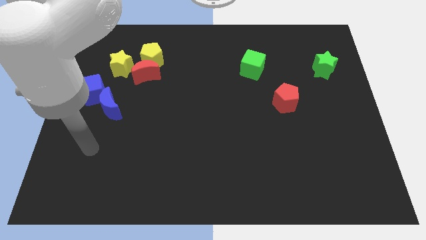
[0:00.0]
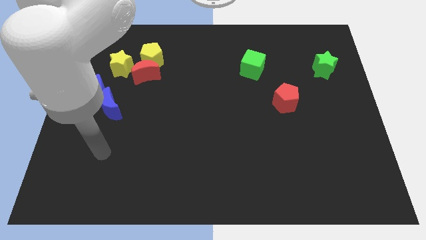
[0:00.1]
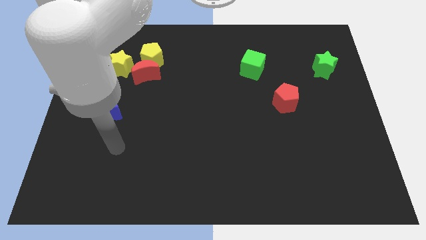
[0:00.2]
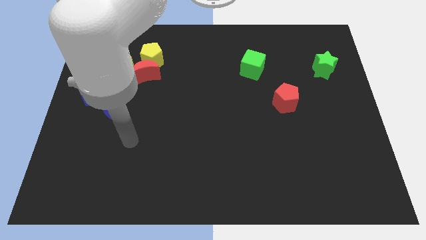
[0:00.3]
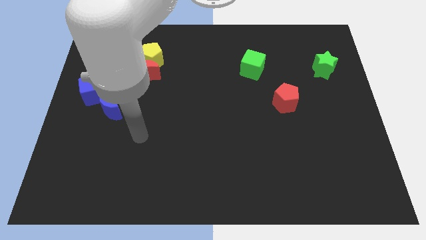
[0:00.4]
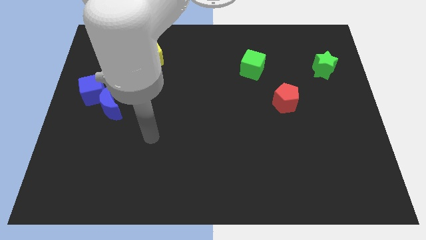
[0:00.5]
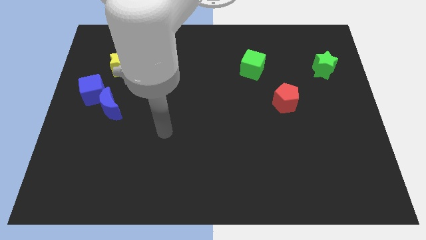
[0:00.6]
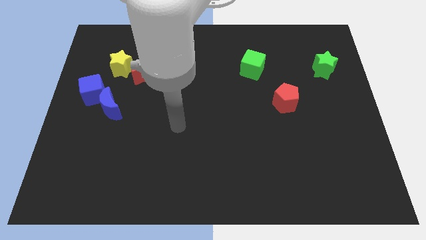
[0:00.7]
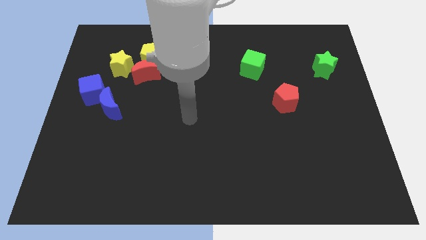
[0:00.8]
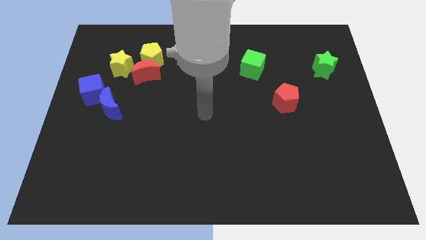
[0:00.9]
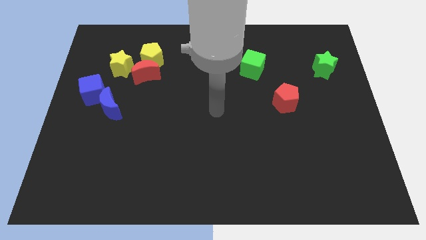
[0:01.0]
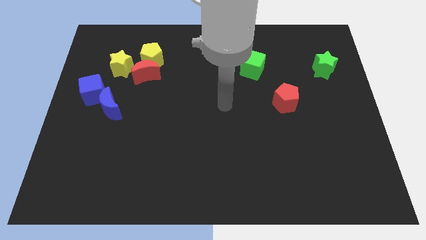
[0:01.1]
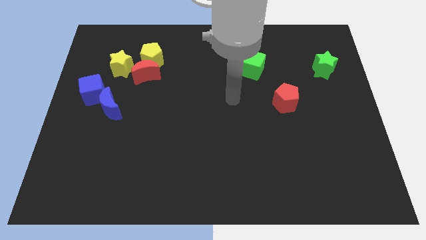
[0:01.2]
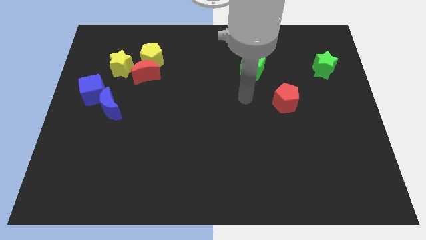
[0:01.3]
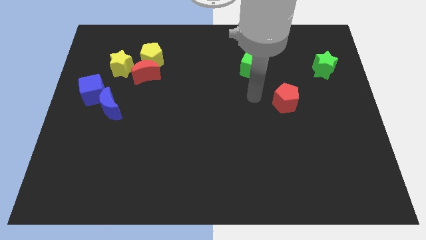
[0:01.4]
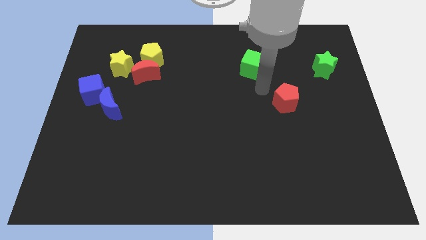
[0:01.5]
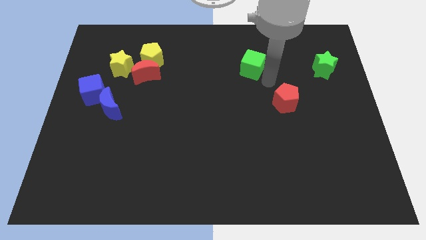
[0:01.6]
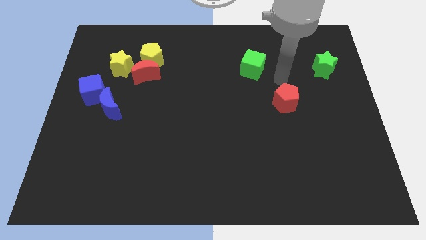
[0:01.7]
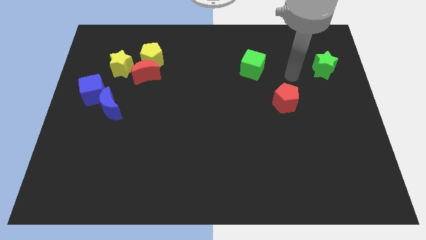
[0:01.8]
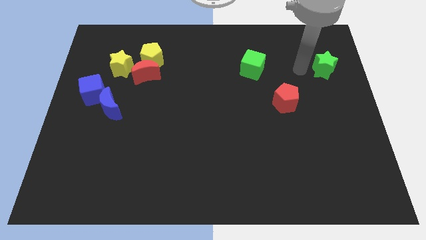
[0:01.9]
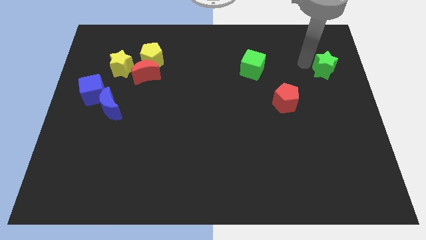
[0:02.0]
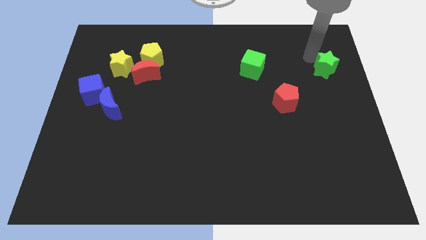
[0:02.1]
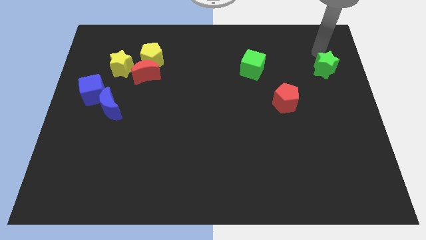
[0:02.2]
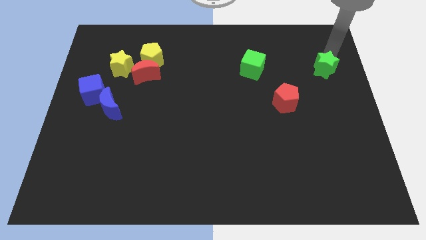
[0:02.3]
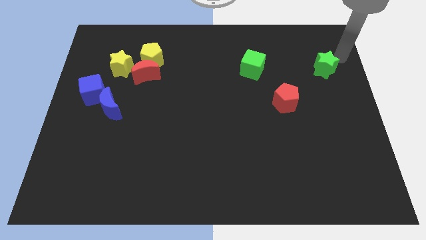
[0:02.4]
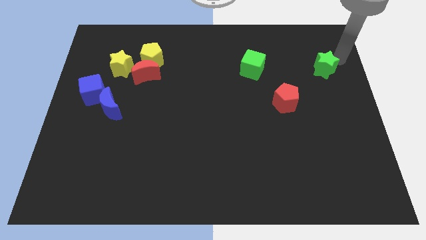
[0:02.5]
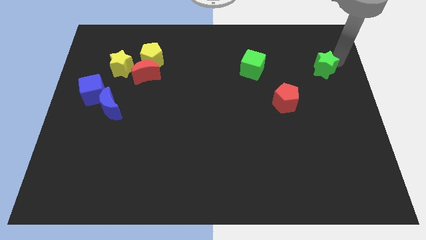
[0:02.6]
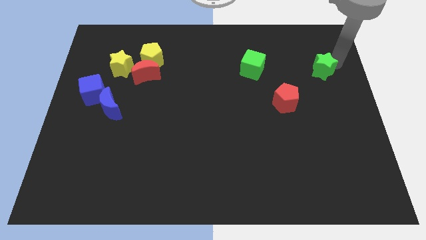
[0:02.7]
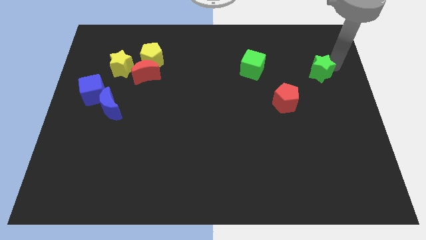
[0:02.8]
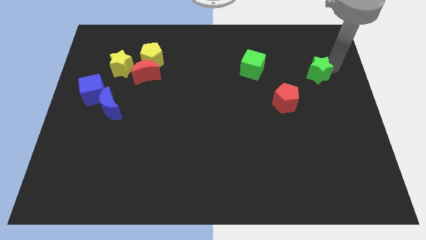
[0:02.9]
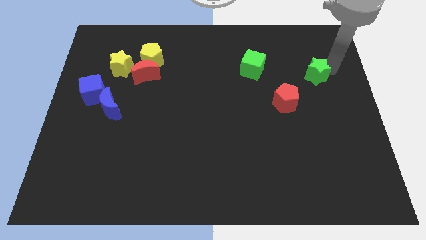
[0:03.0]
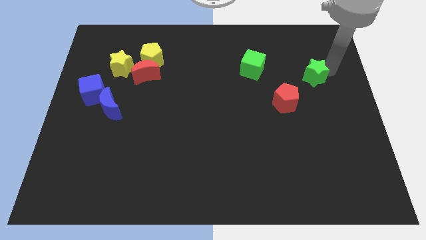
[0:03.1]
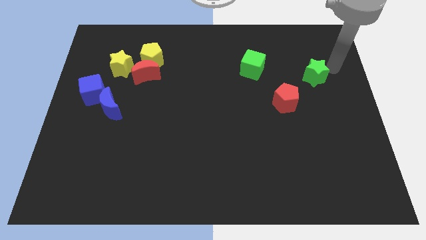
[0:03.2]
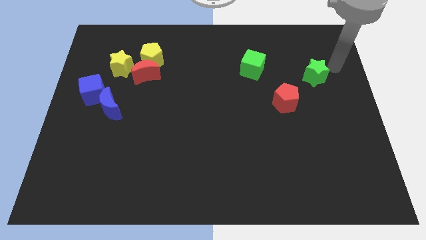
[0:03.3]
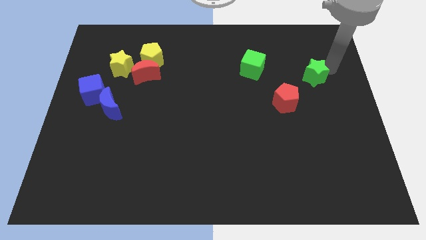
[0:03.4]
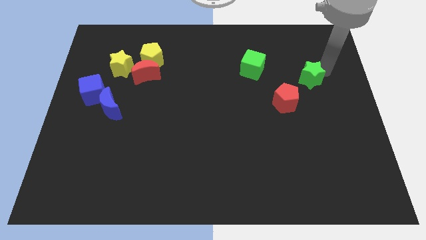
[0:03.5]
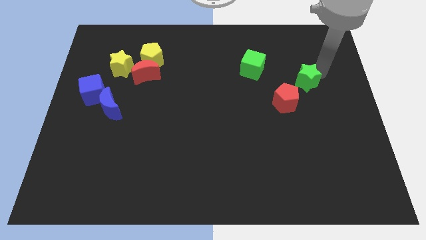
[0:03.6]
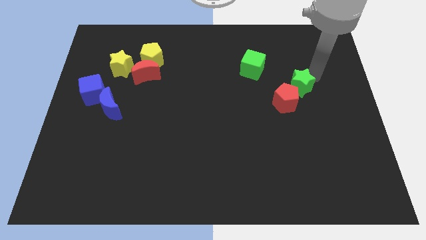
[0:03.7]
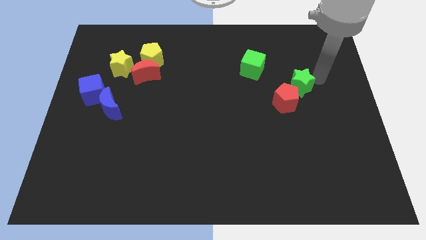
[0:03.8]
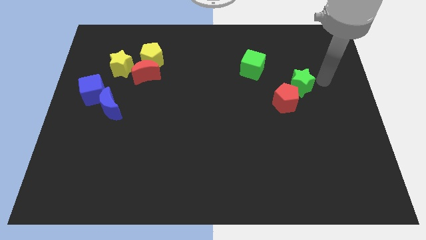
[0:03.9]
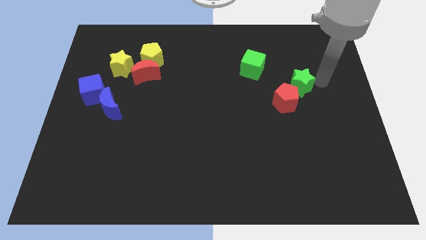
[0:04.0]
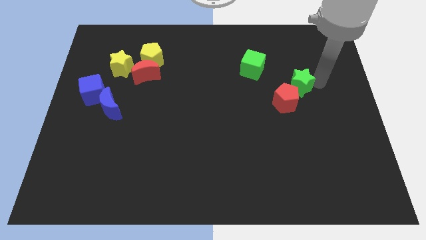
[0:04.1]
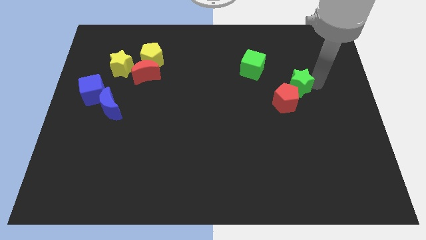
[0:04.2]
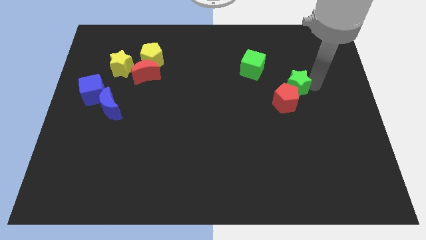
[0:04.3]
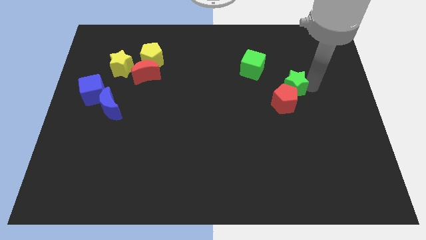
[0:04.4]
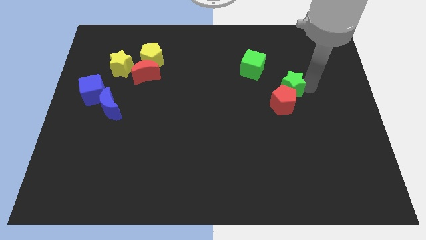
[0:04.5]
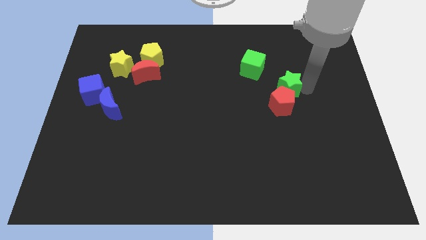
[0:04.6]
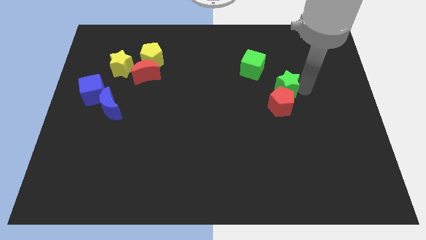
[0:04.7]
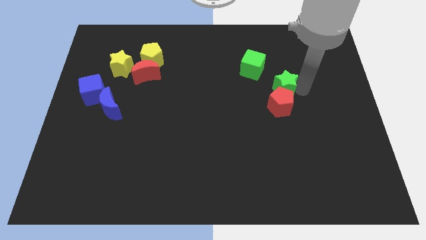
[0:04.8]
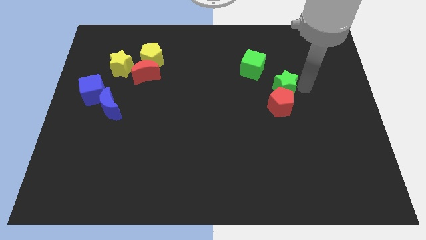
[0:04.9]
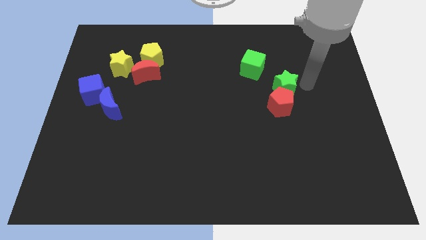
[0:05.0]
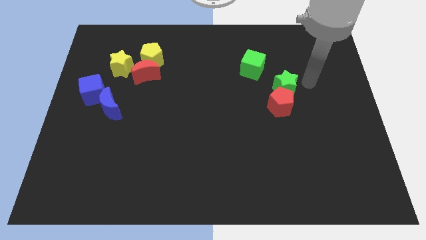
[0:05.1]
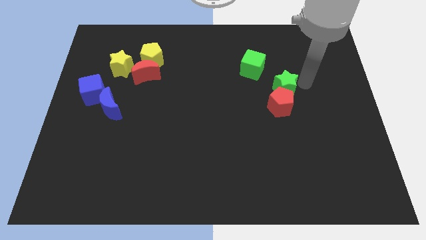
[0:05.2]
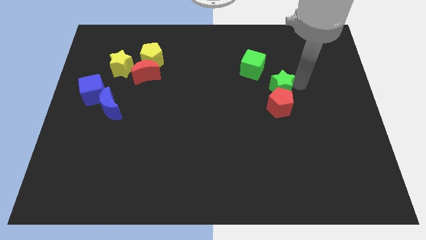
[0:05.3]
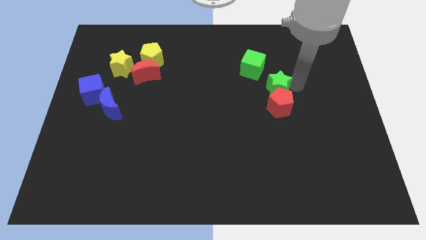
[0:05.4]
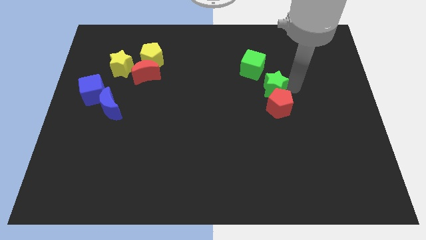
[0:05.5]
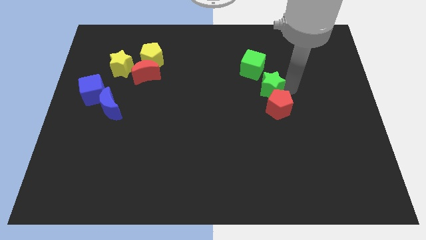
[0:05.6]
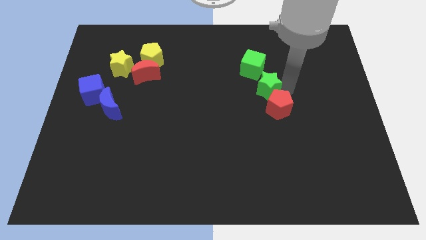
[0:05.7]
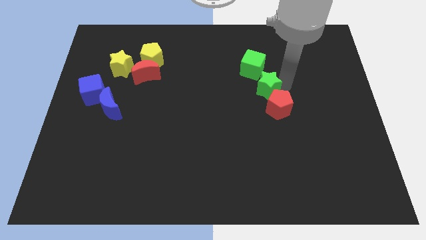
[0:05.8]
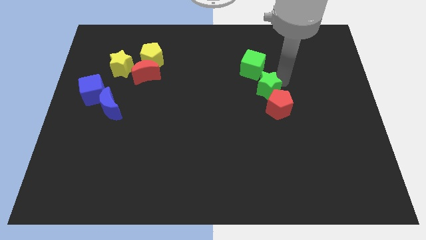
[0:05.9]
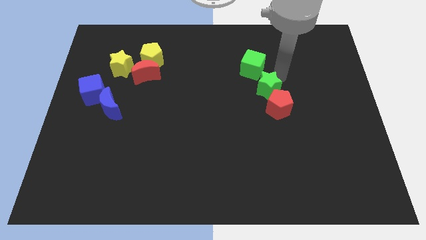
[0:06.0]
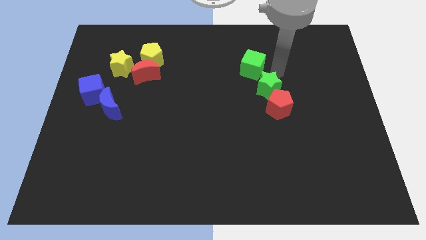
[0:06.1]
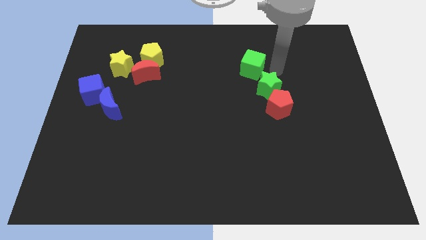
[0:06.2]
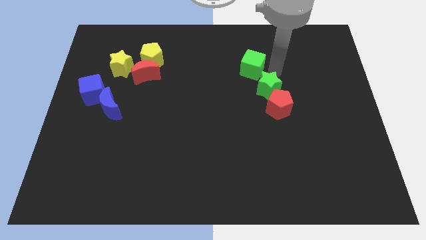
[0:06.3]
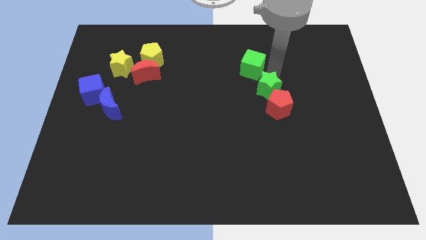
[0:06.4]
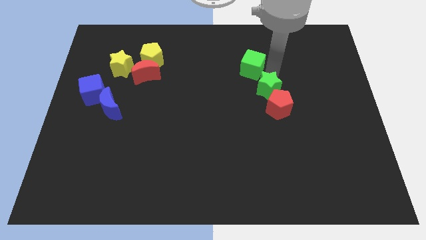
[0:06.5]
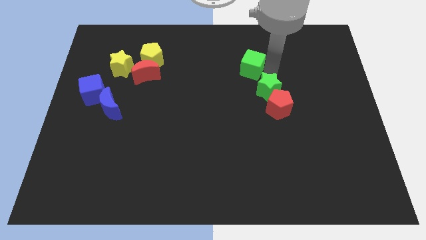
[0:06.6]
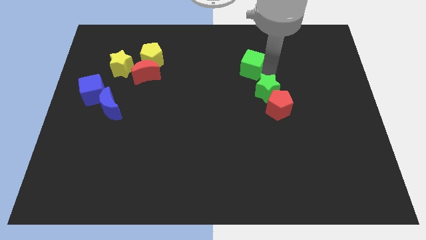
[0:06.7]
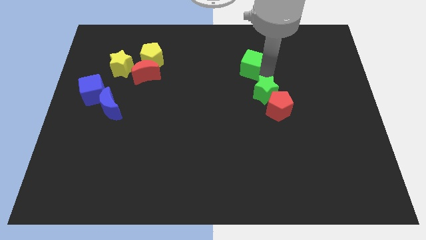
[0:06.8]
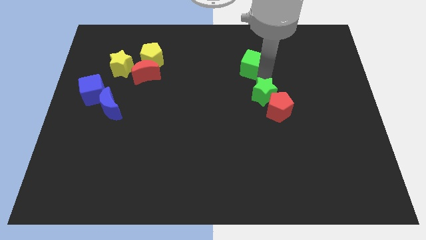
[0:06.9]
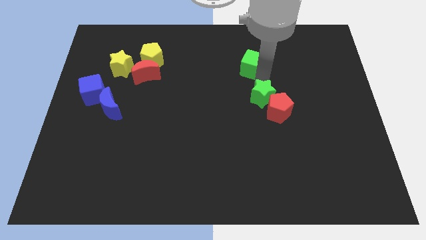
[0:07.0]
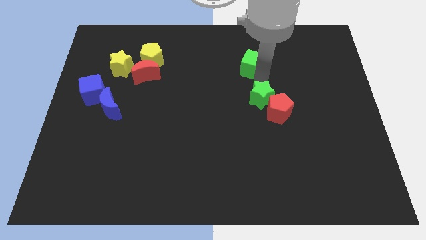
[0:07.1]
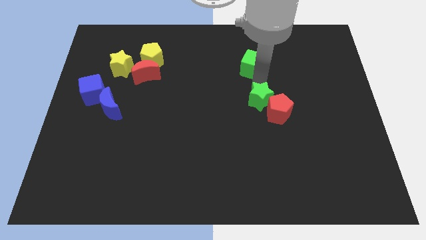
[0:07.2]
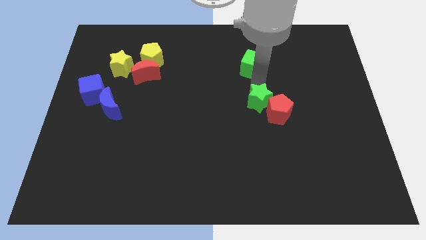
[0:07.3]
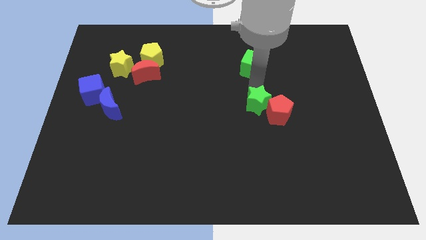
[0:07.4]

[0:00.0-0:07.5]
move the green star diagonally down and left
